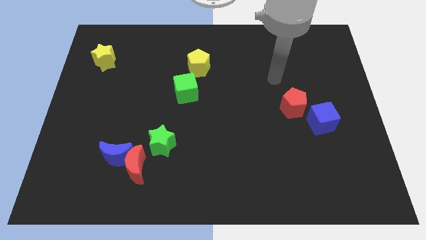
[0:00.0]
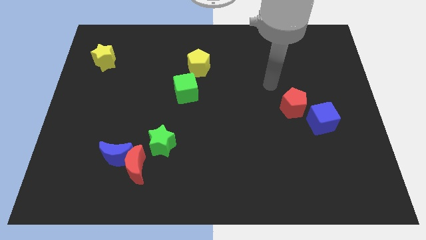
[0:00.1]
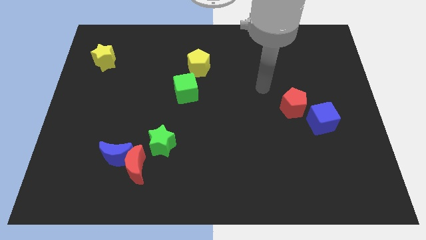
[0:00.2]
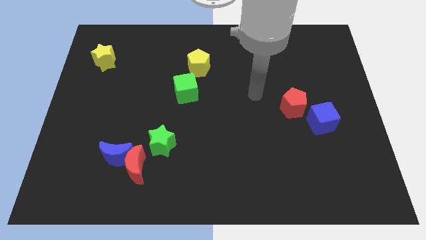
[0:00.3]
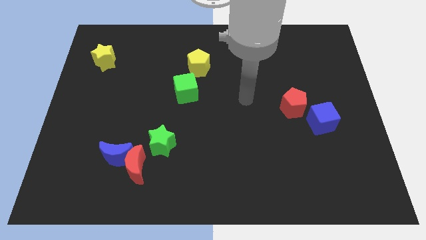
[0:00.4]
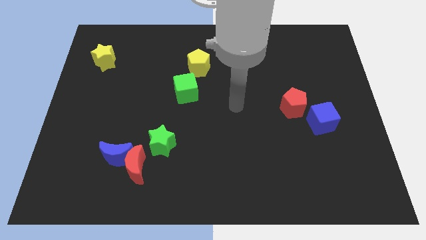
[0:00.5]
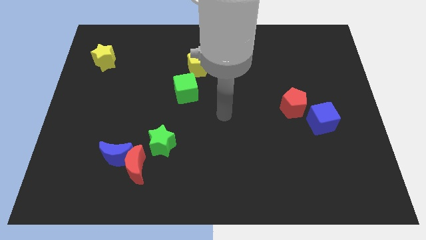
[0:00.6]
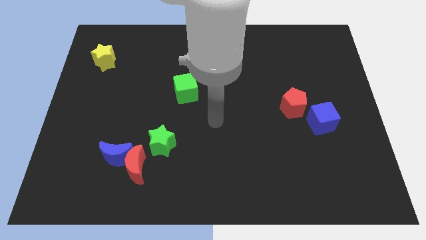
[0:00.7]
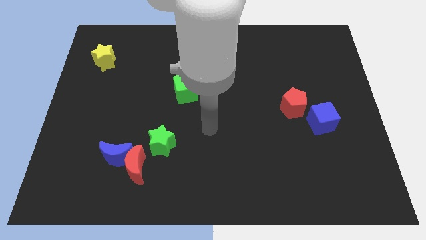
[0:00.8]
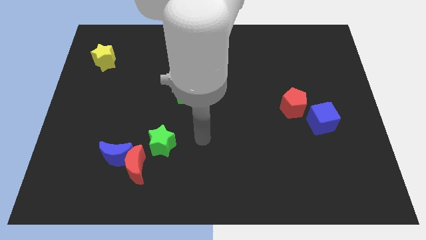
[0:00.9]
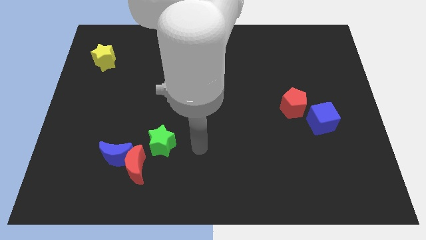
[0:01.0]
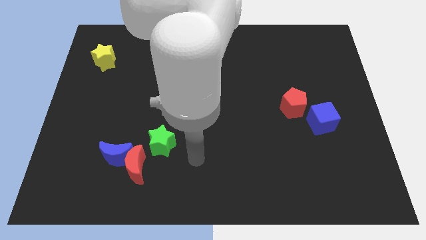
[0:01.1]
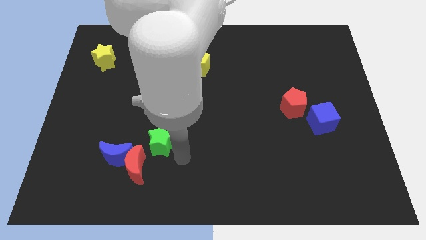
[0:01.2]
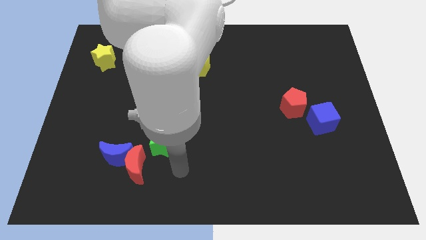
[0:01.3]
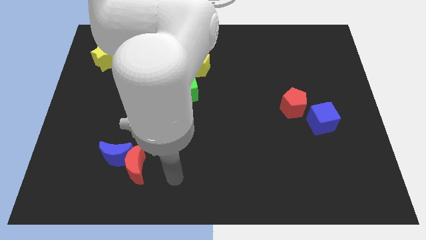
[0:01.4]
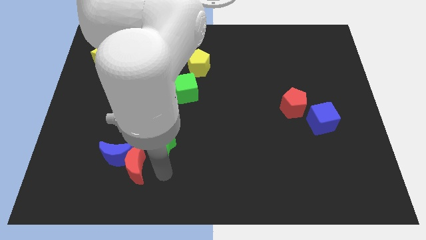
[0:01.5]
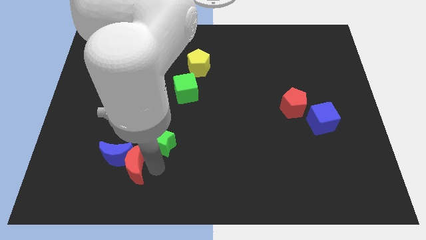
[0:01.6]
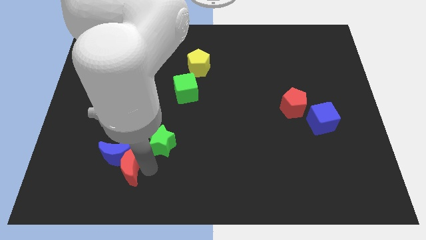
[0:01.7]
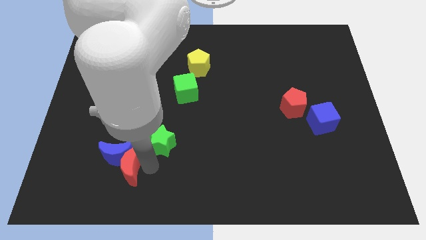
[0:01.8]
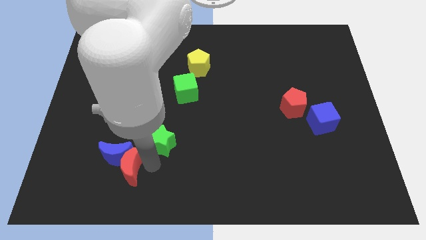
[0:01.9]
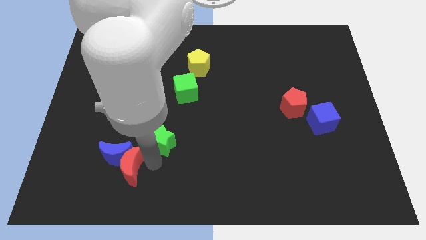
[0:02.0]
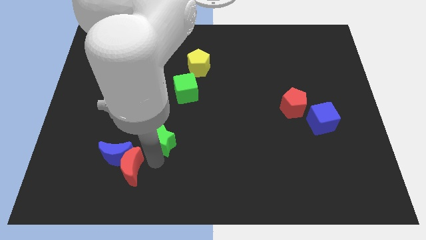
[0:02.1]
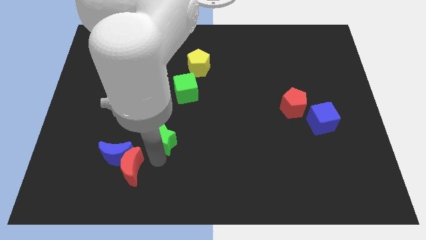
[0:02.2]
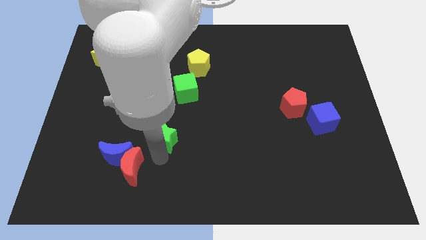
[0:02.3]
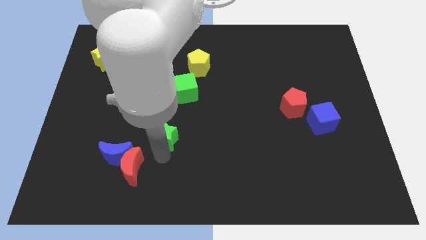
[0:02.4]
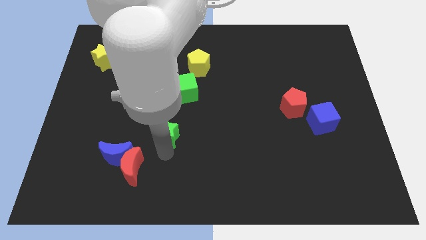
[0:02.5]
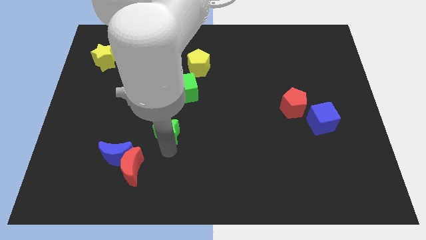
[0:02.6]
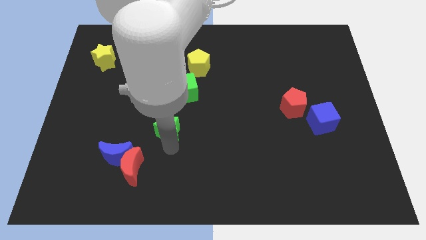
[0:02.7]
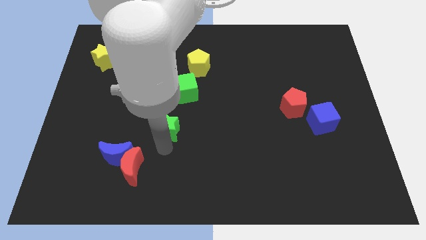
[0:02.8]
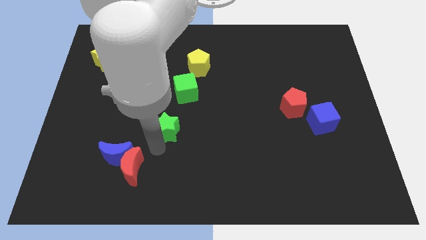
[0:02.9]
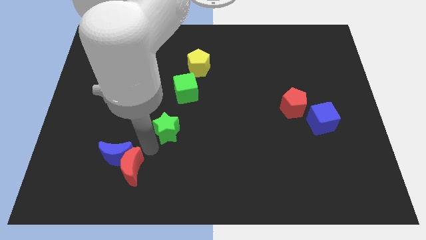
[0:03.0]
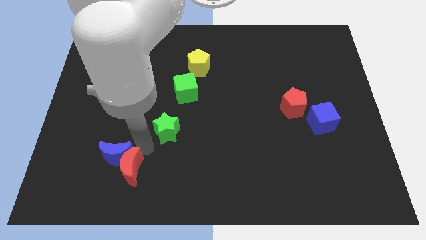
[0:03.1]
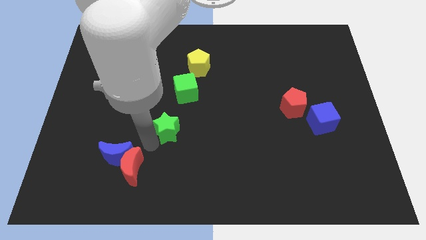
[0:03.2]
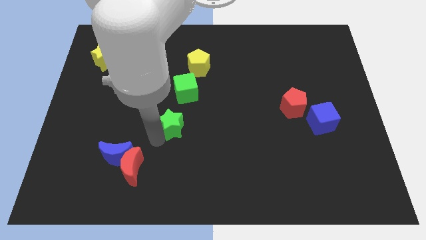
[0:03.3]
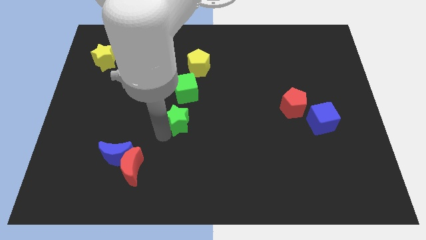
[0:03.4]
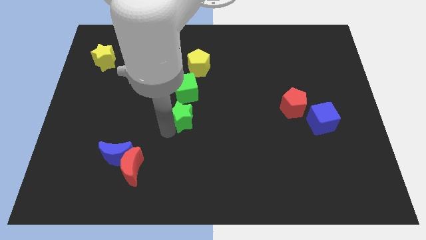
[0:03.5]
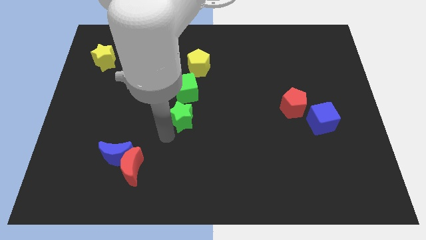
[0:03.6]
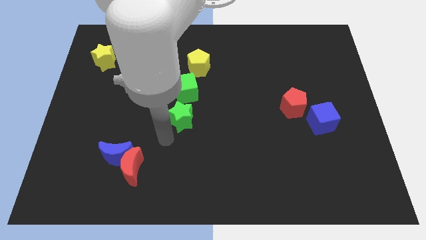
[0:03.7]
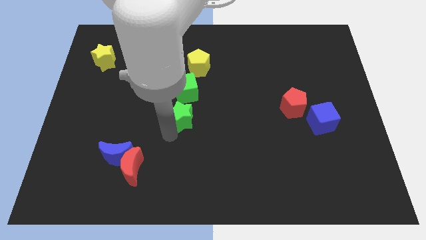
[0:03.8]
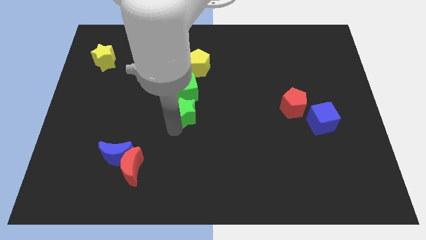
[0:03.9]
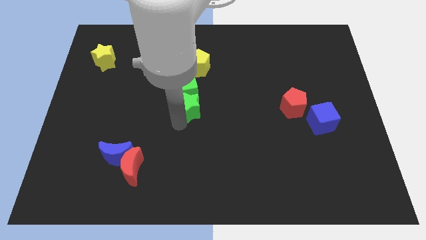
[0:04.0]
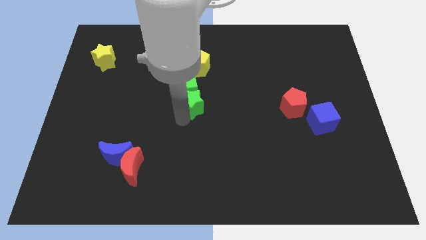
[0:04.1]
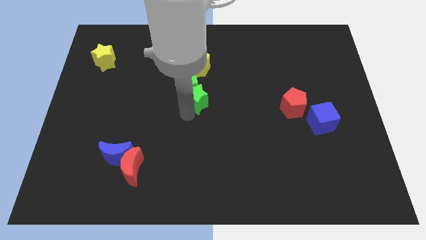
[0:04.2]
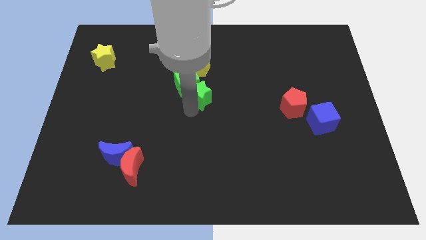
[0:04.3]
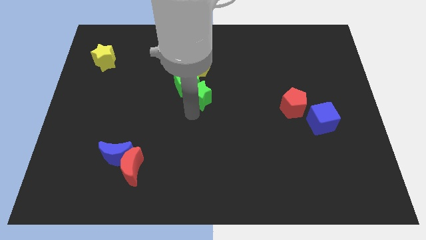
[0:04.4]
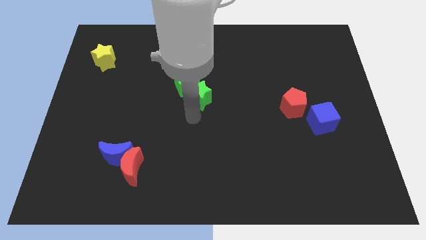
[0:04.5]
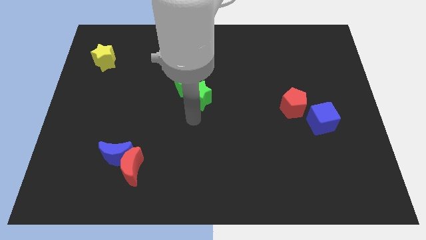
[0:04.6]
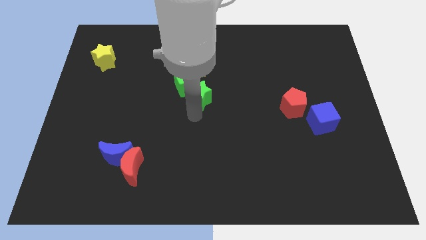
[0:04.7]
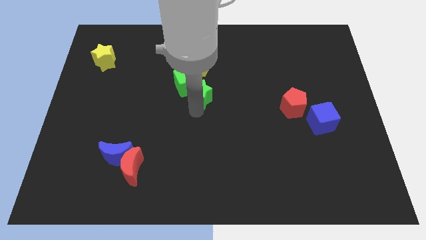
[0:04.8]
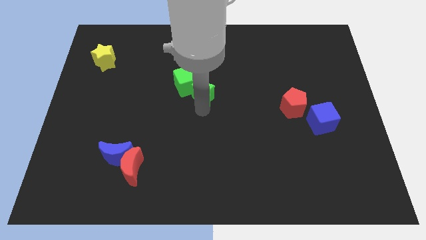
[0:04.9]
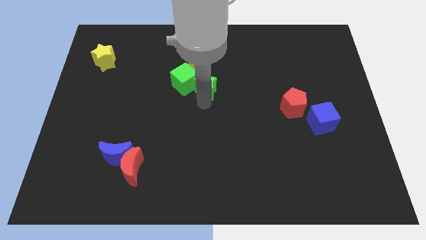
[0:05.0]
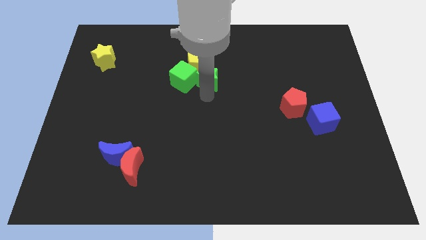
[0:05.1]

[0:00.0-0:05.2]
slide the green star close to the yellow pentagon

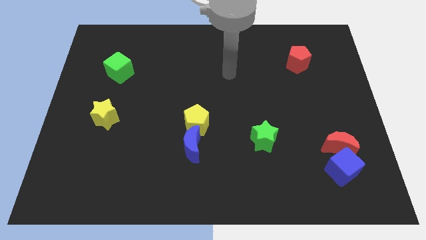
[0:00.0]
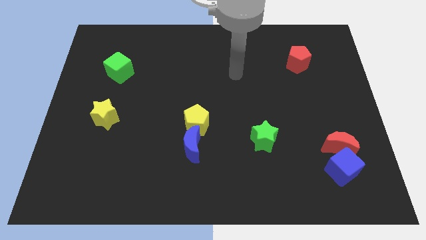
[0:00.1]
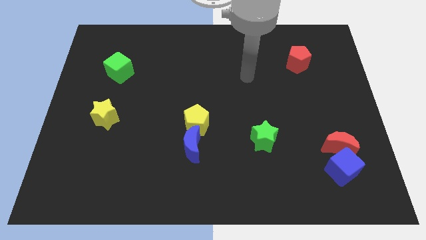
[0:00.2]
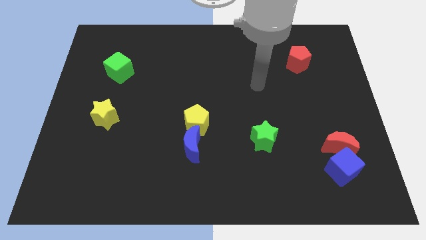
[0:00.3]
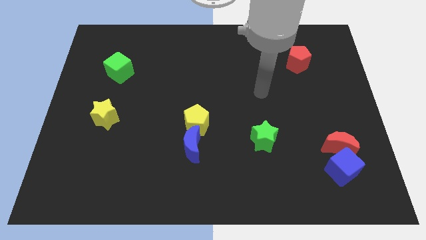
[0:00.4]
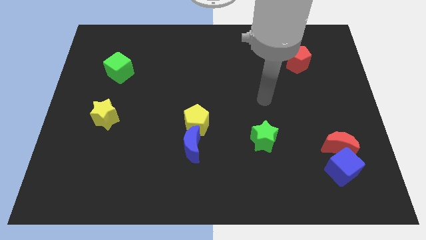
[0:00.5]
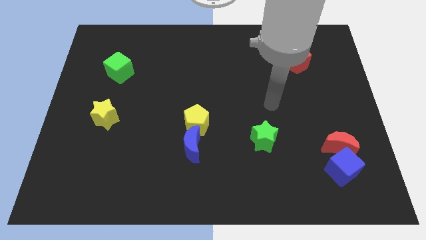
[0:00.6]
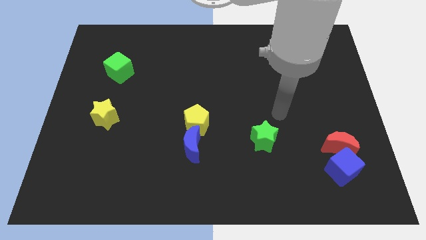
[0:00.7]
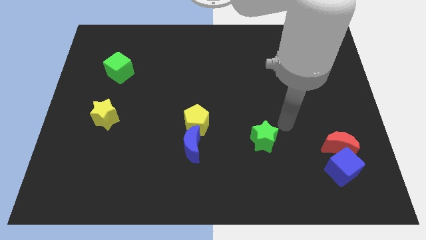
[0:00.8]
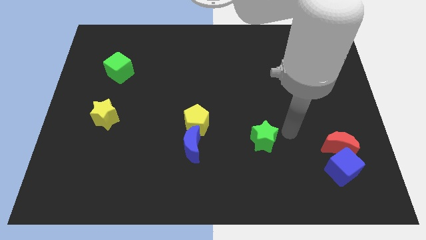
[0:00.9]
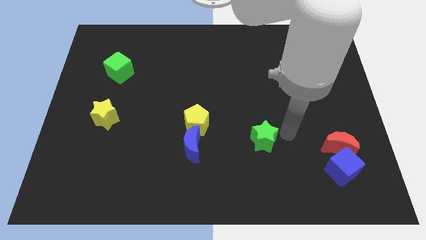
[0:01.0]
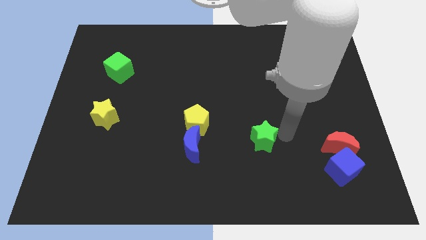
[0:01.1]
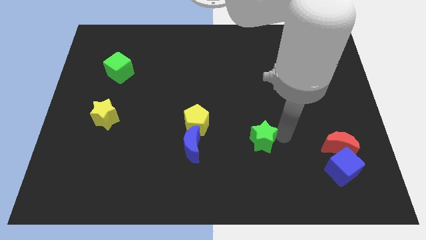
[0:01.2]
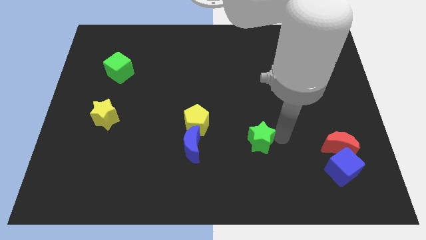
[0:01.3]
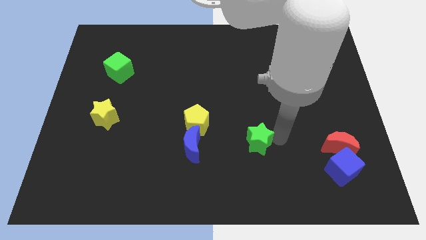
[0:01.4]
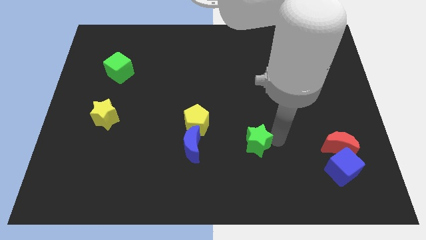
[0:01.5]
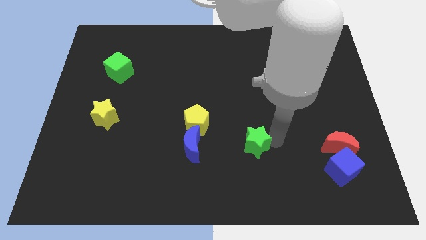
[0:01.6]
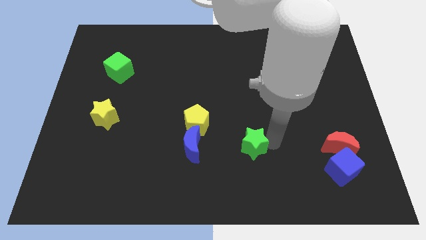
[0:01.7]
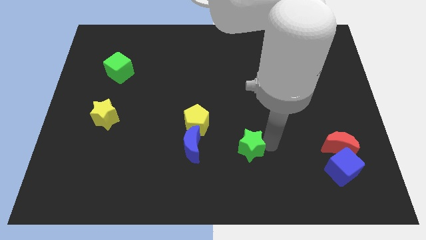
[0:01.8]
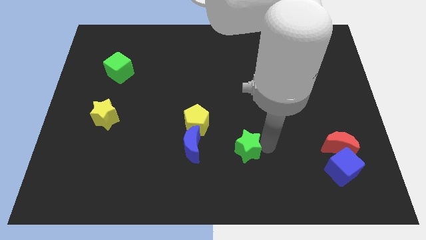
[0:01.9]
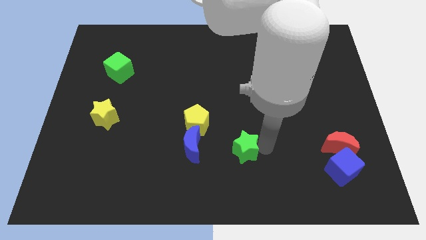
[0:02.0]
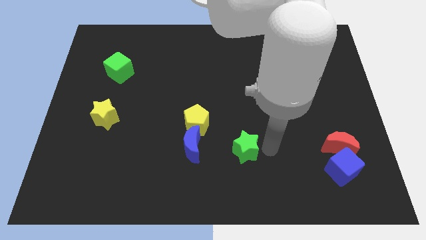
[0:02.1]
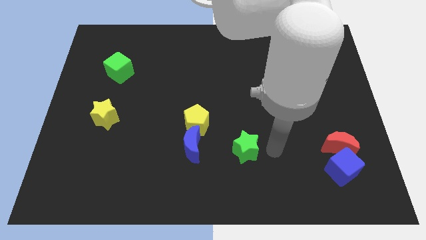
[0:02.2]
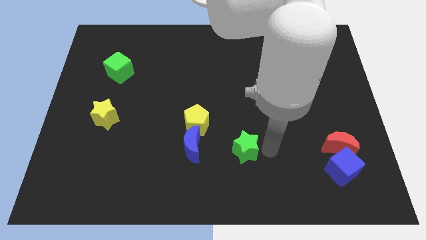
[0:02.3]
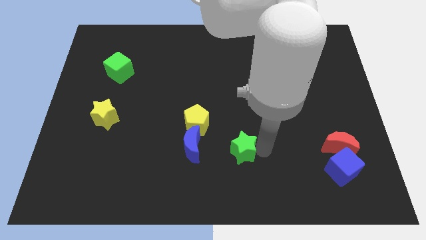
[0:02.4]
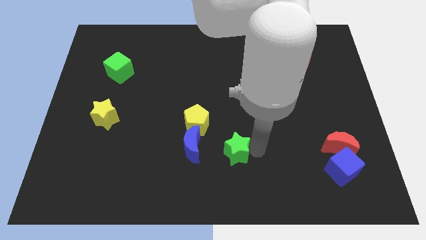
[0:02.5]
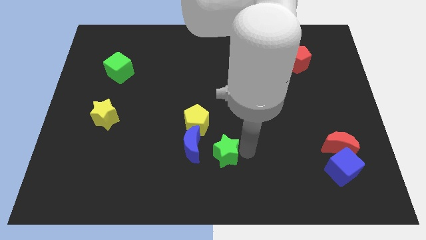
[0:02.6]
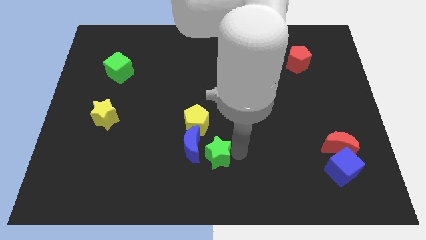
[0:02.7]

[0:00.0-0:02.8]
slide the green star to the blue moon
